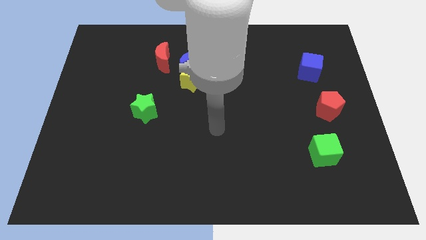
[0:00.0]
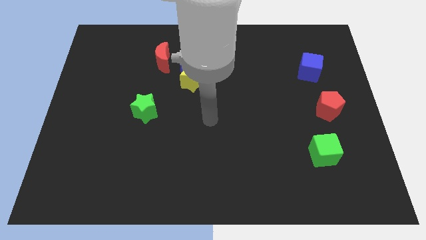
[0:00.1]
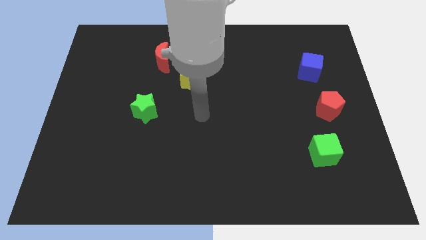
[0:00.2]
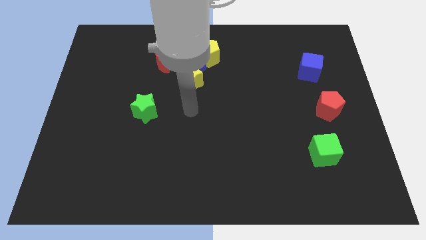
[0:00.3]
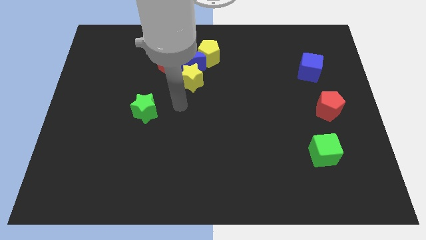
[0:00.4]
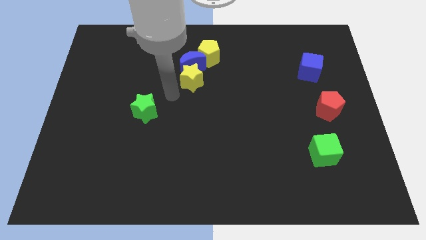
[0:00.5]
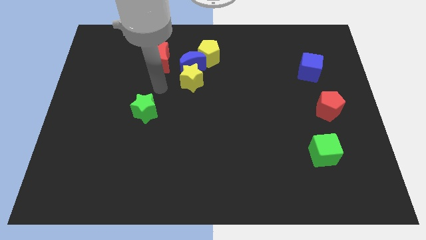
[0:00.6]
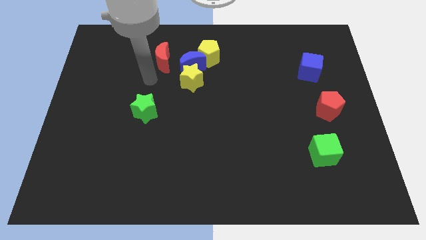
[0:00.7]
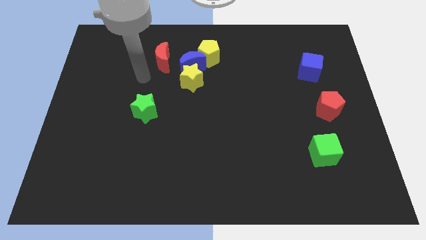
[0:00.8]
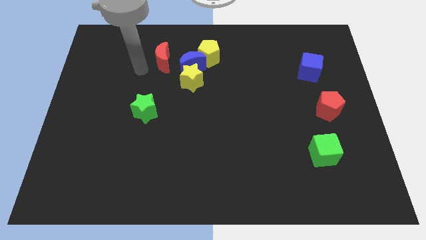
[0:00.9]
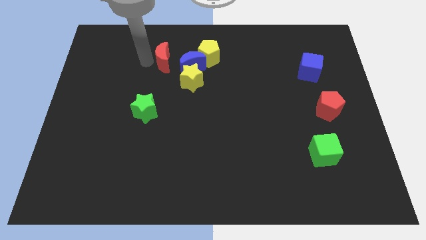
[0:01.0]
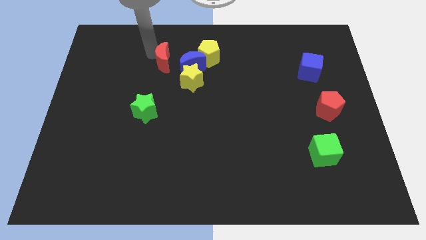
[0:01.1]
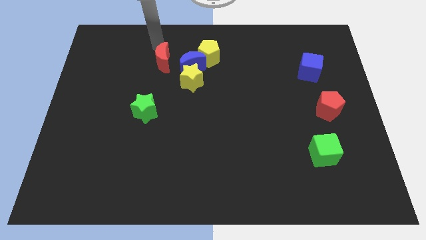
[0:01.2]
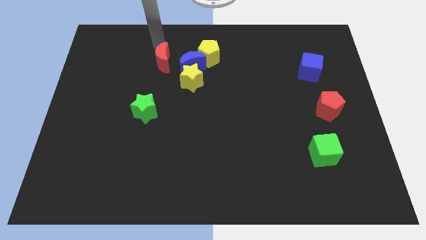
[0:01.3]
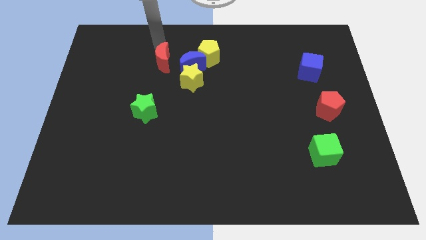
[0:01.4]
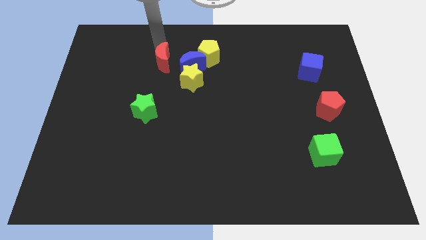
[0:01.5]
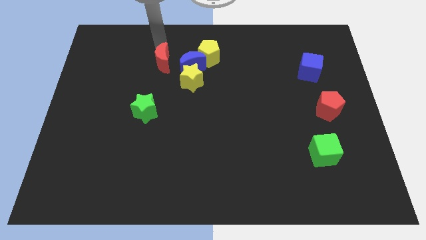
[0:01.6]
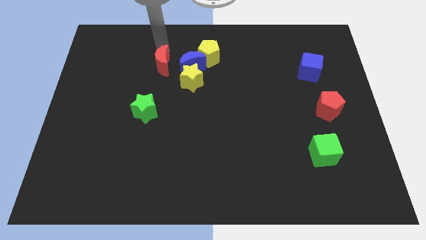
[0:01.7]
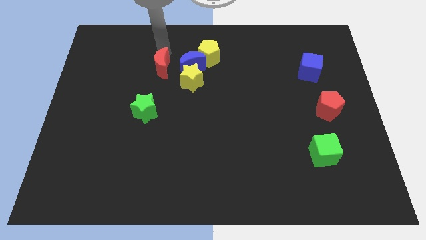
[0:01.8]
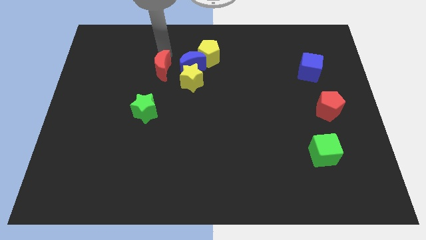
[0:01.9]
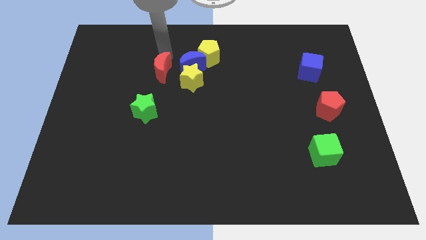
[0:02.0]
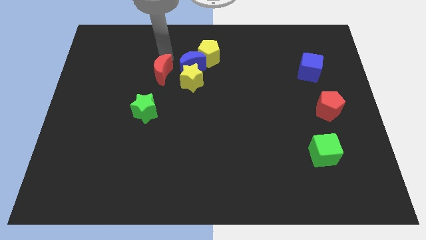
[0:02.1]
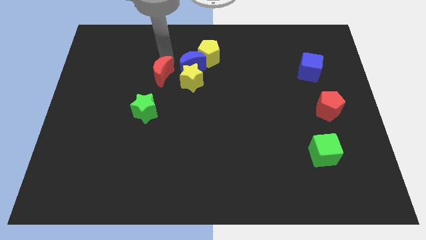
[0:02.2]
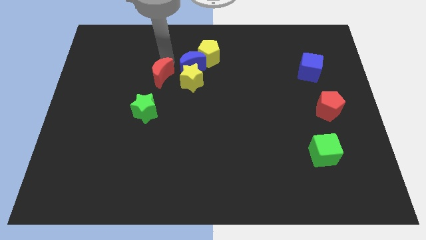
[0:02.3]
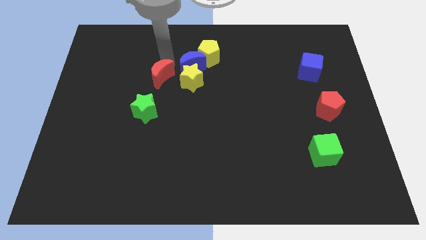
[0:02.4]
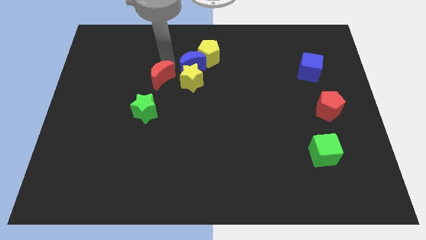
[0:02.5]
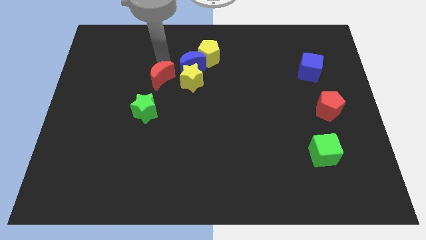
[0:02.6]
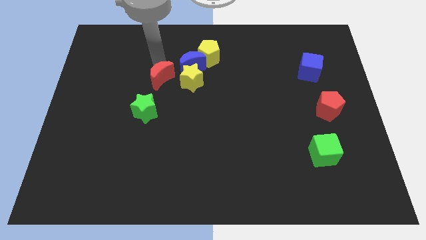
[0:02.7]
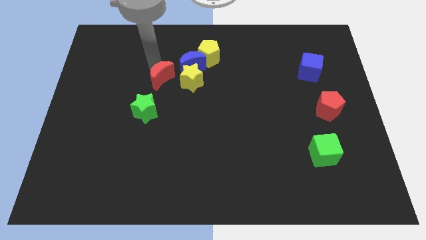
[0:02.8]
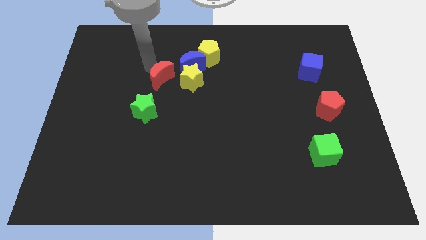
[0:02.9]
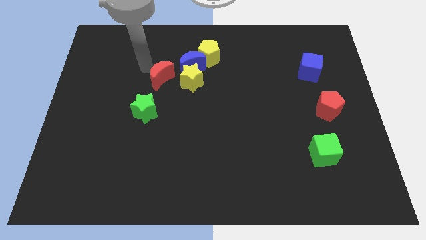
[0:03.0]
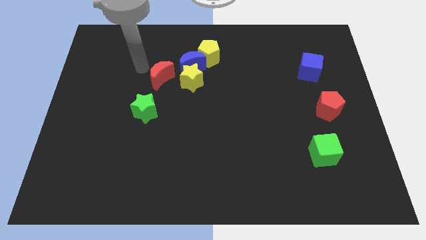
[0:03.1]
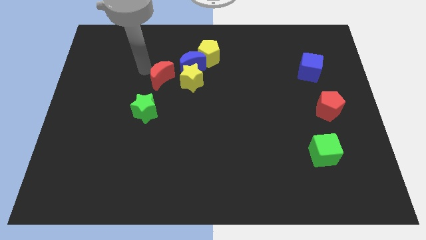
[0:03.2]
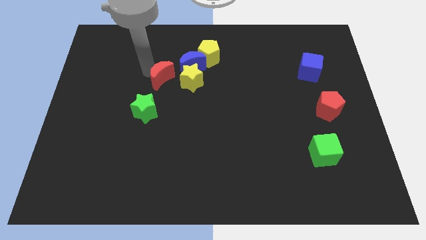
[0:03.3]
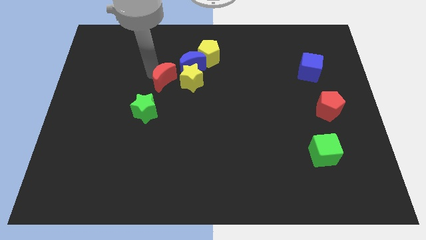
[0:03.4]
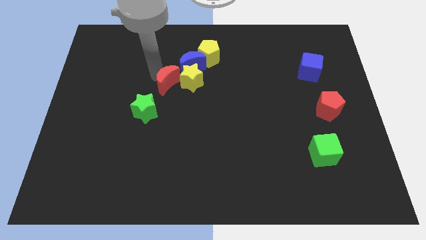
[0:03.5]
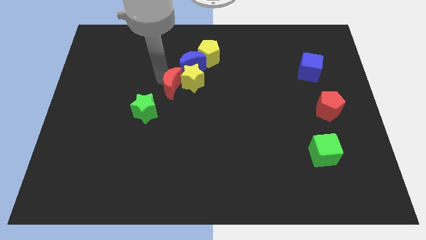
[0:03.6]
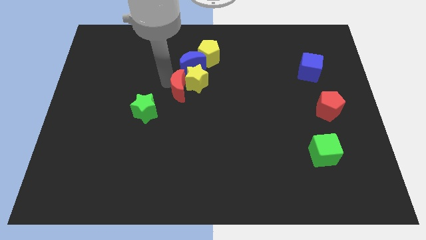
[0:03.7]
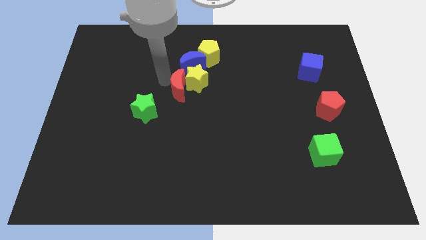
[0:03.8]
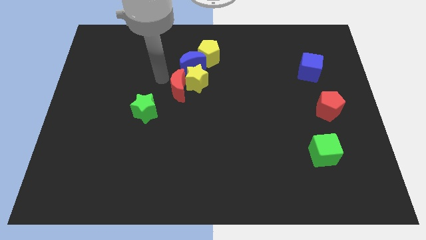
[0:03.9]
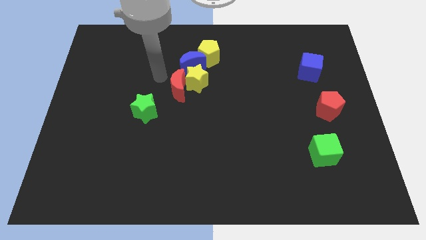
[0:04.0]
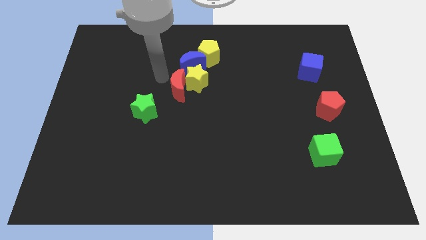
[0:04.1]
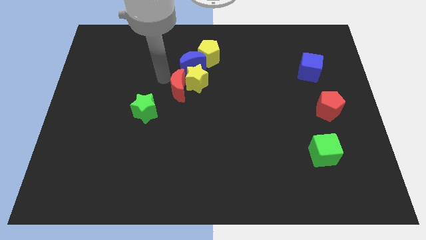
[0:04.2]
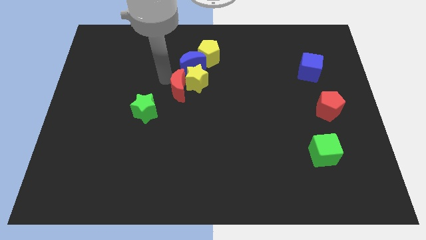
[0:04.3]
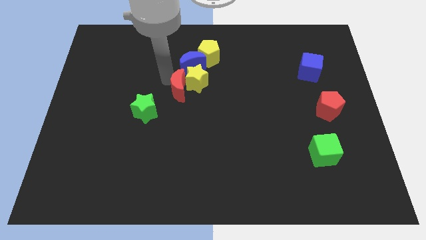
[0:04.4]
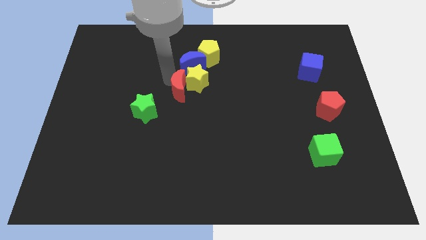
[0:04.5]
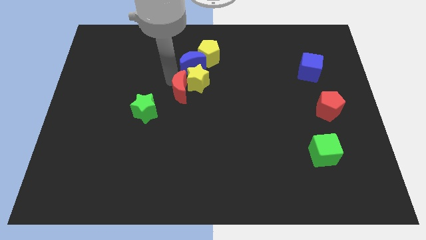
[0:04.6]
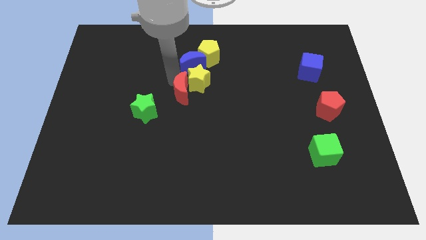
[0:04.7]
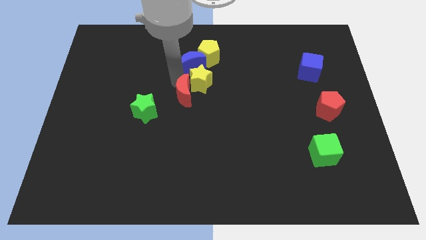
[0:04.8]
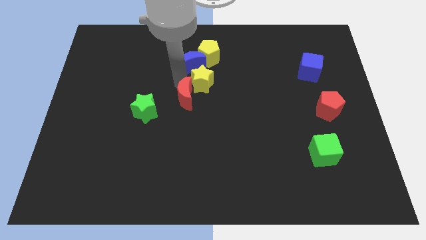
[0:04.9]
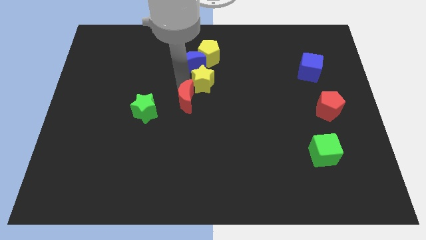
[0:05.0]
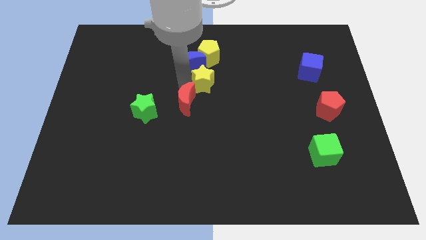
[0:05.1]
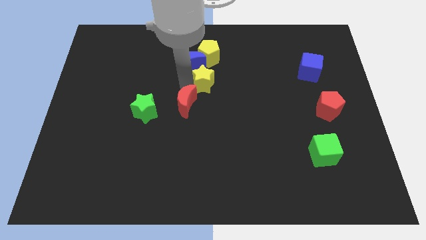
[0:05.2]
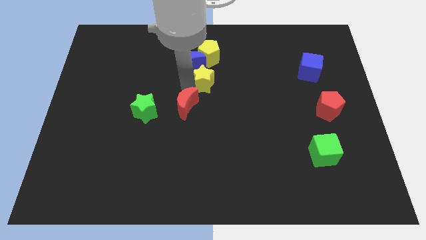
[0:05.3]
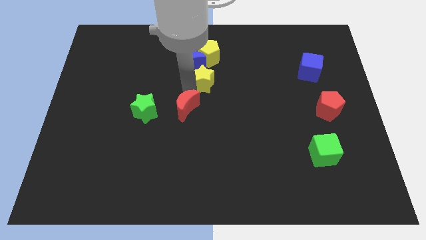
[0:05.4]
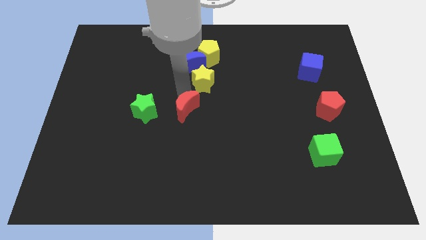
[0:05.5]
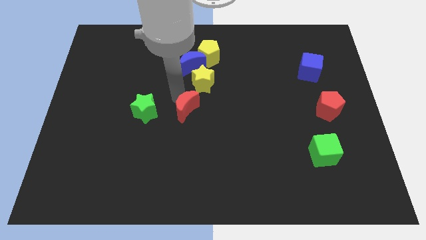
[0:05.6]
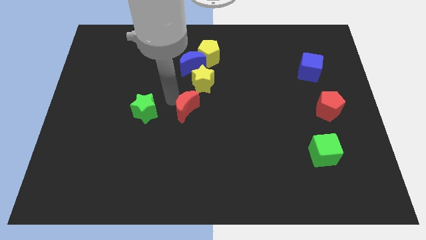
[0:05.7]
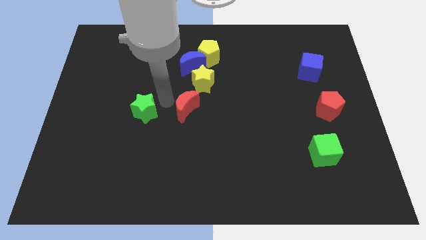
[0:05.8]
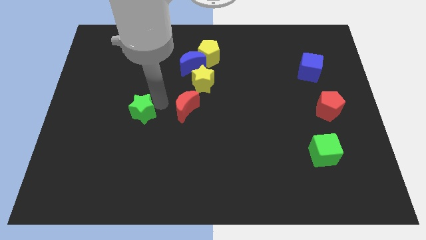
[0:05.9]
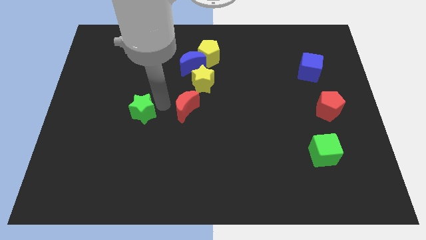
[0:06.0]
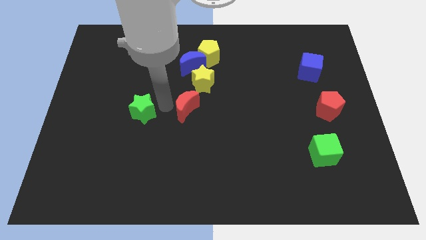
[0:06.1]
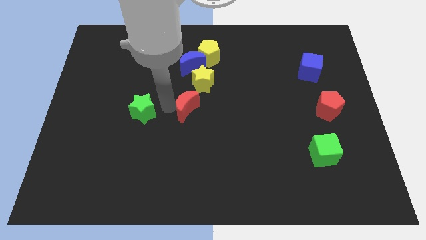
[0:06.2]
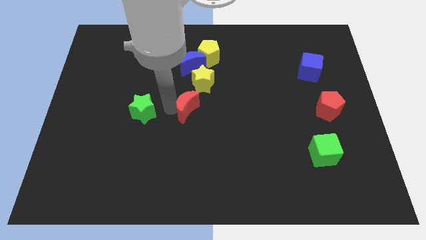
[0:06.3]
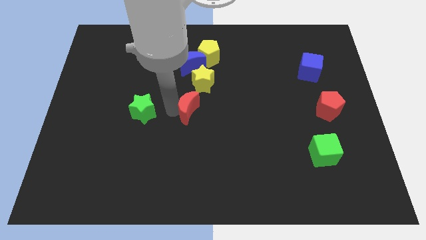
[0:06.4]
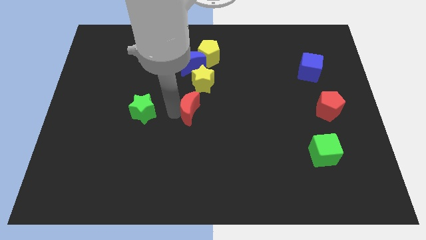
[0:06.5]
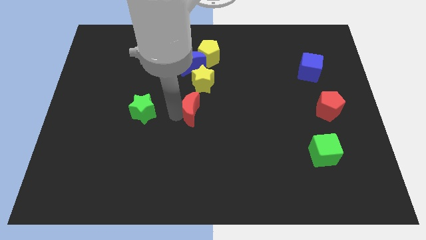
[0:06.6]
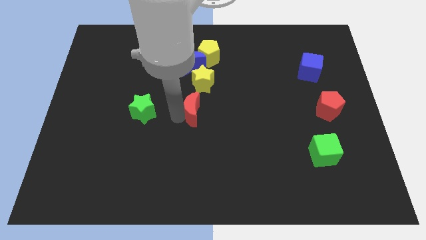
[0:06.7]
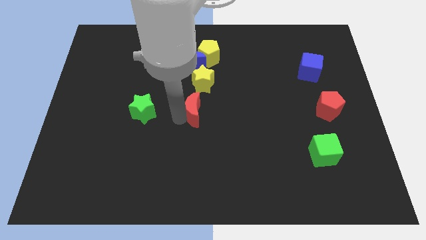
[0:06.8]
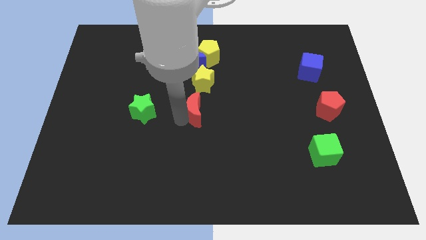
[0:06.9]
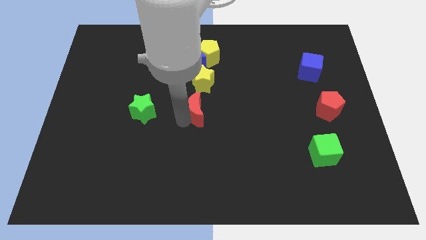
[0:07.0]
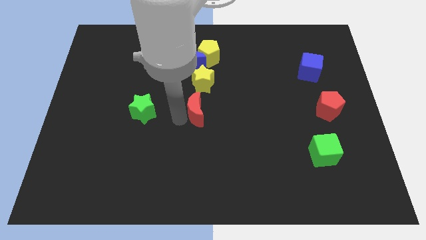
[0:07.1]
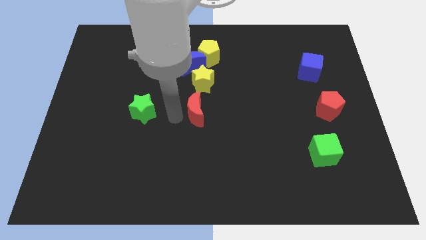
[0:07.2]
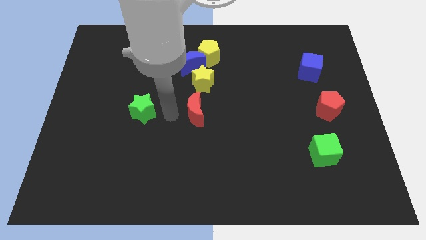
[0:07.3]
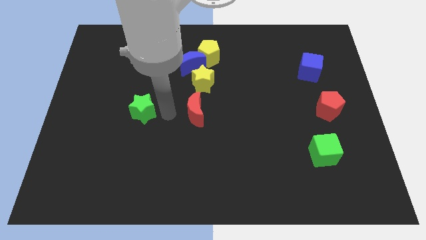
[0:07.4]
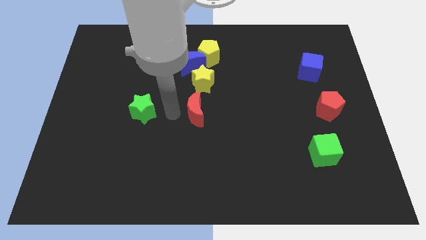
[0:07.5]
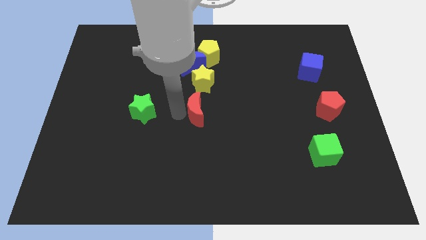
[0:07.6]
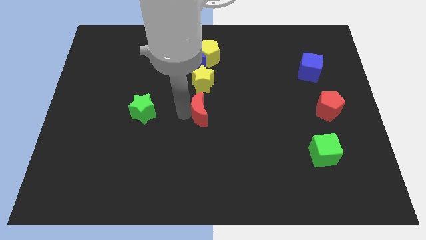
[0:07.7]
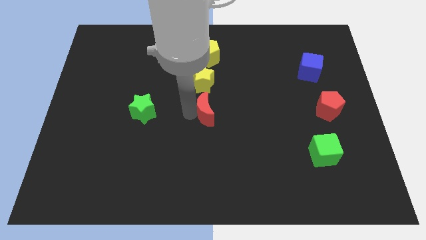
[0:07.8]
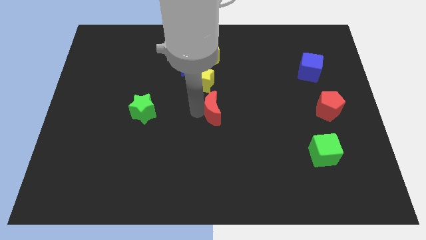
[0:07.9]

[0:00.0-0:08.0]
move the red moon down and then to the right

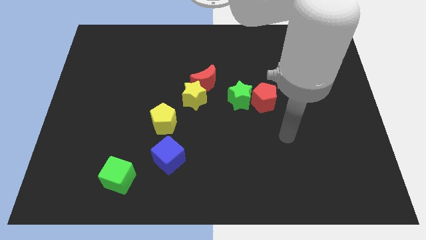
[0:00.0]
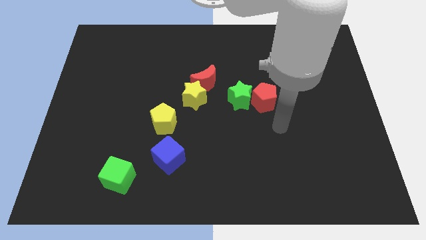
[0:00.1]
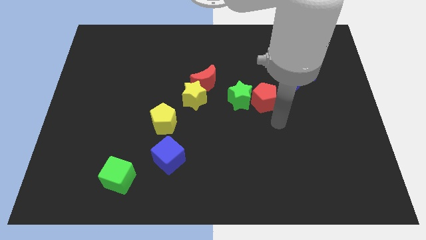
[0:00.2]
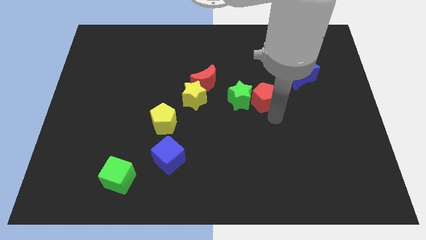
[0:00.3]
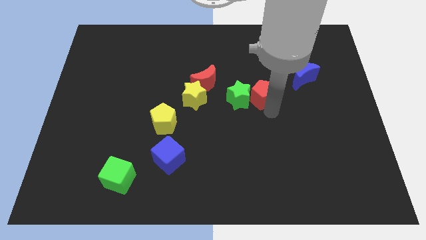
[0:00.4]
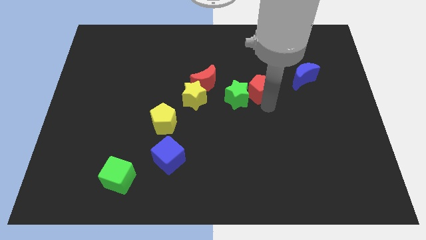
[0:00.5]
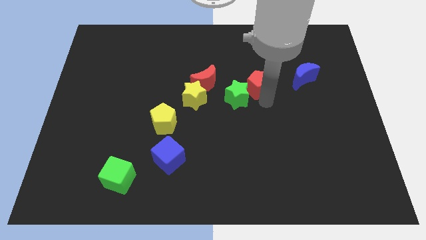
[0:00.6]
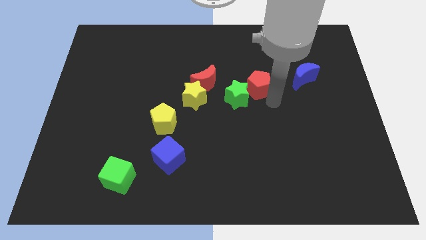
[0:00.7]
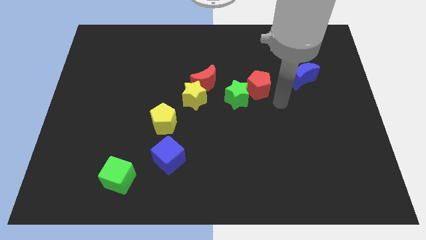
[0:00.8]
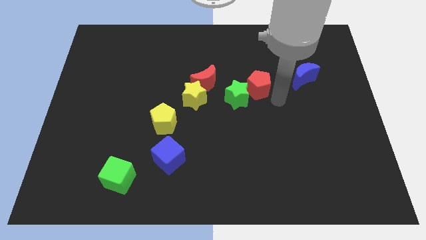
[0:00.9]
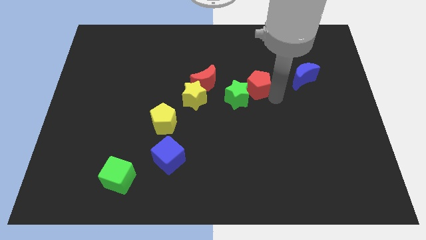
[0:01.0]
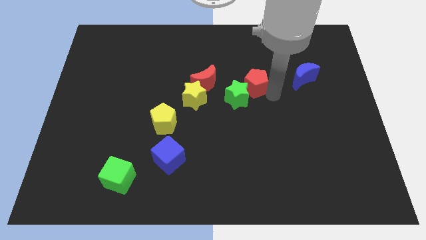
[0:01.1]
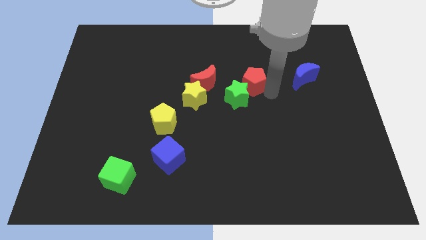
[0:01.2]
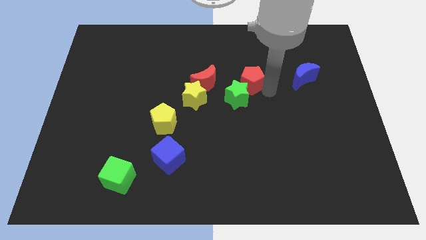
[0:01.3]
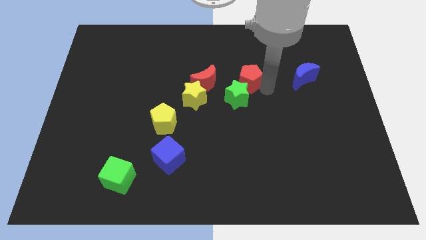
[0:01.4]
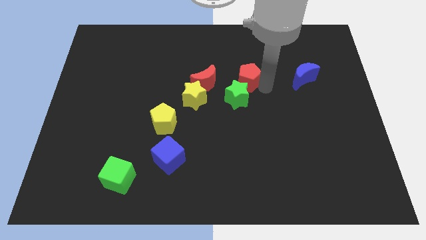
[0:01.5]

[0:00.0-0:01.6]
slide the red pentagon somewhat upwards and left
